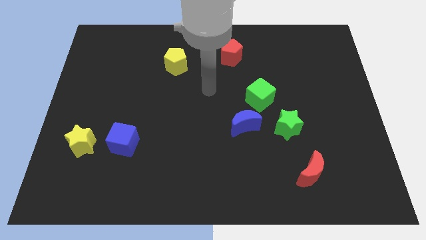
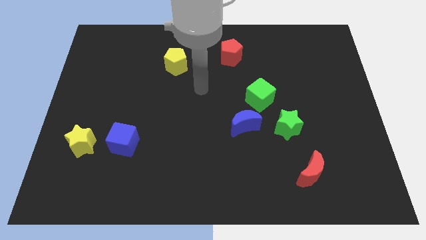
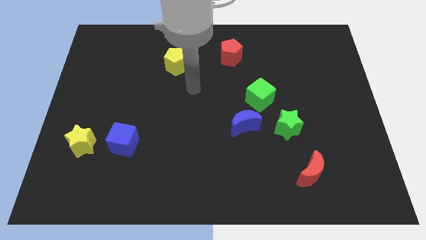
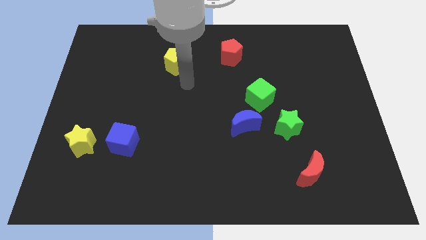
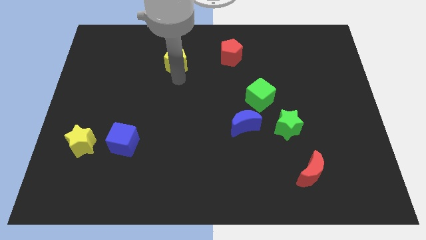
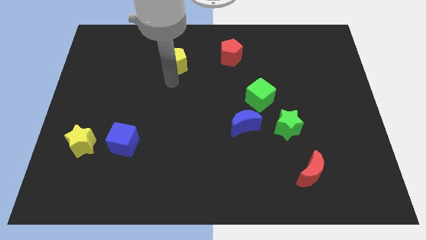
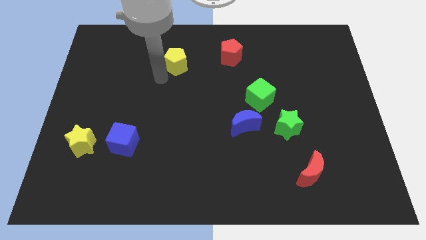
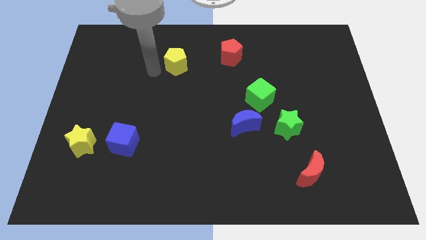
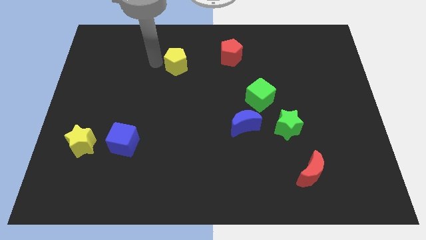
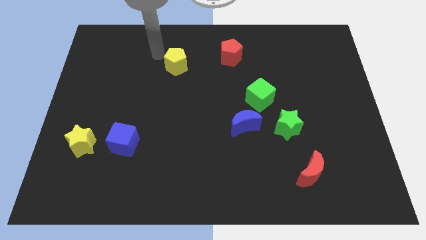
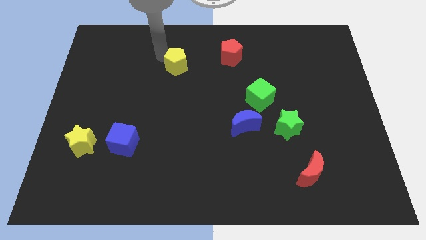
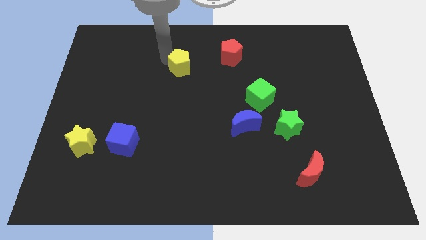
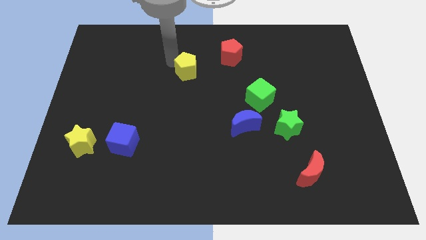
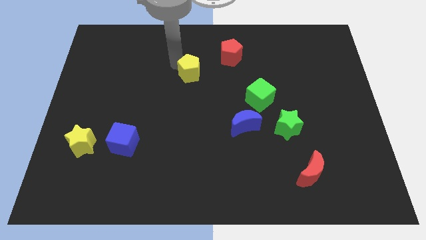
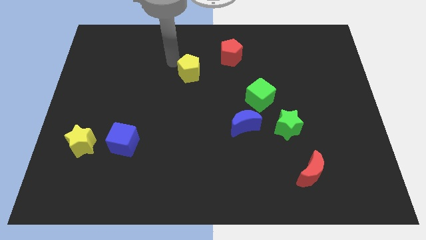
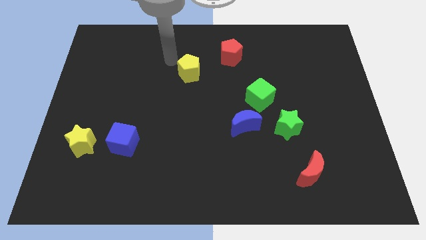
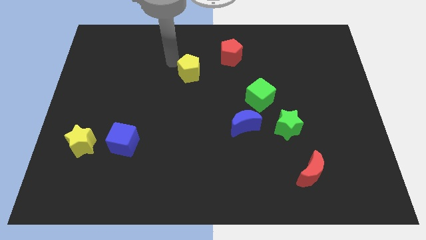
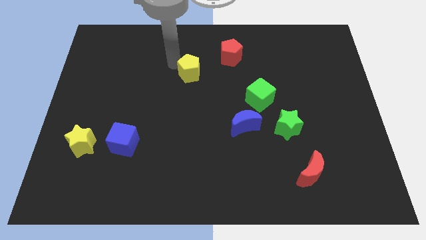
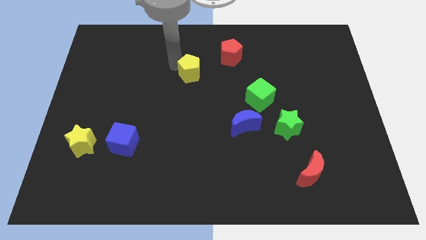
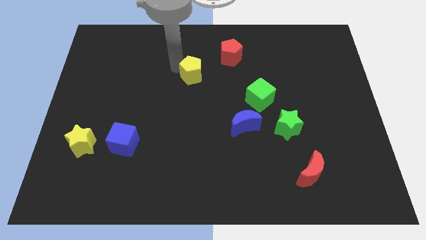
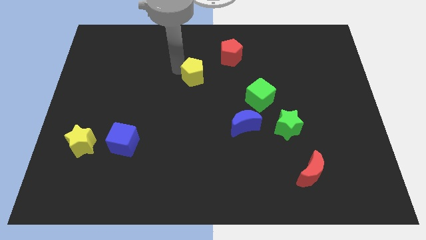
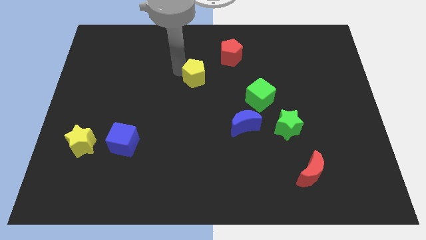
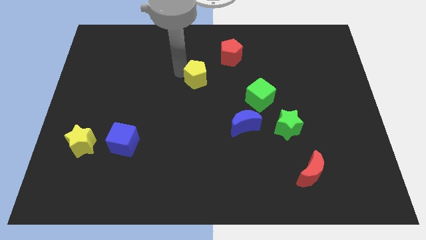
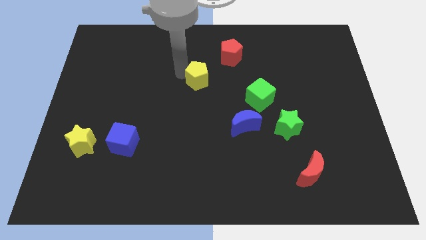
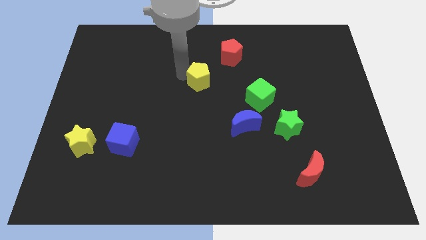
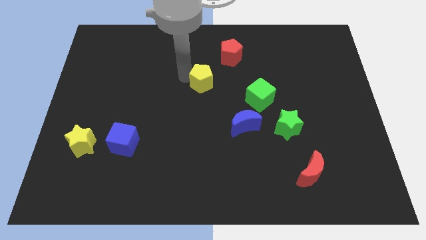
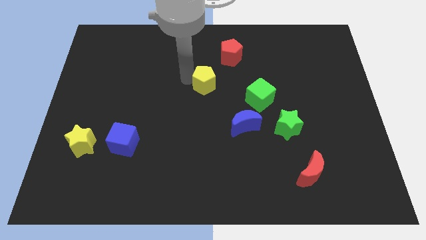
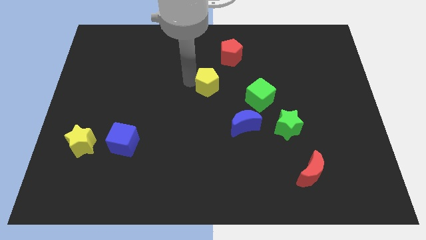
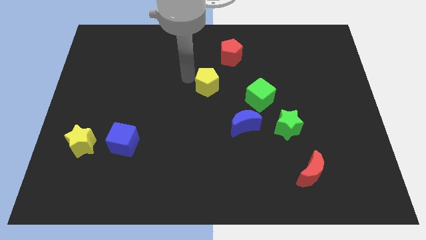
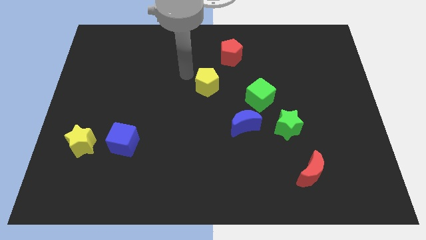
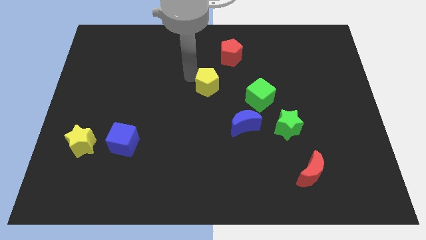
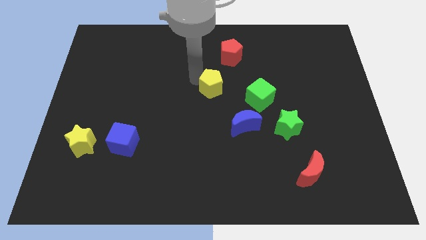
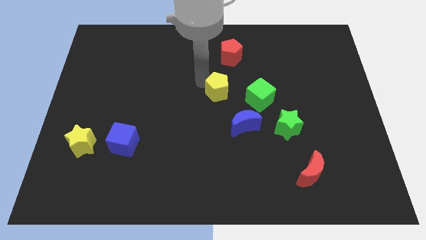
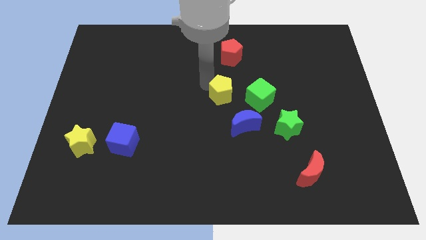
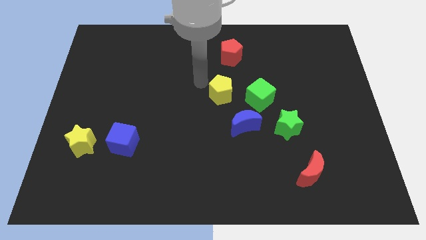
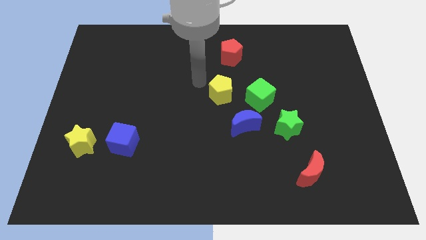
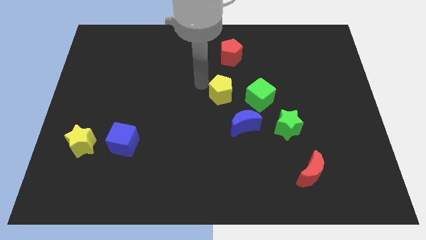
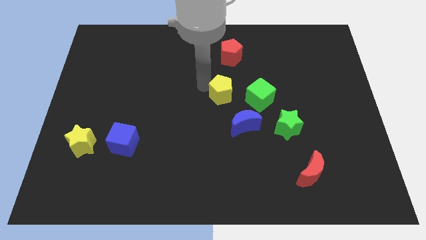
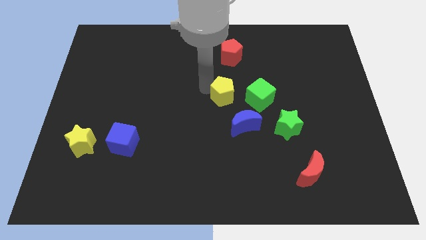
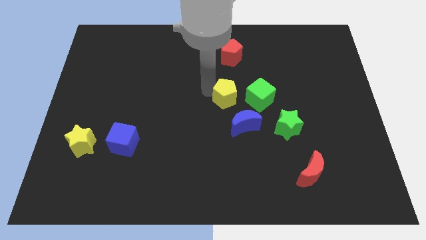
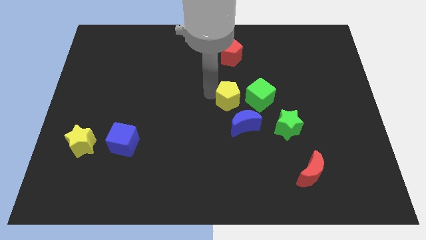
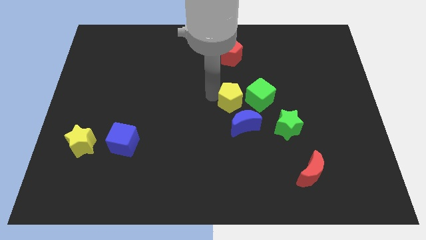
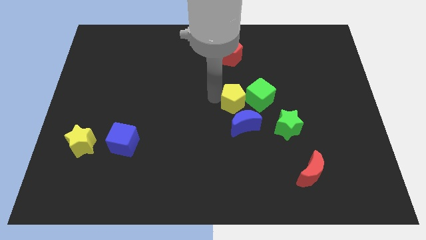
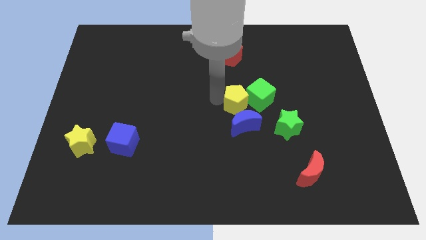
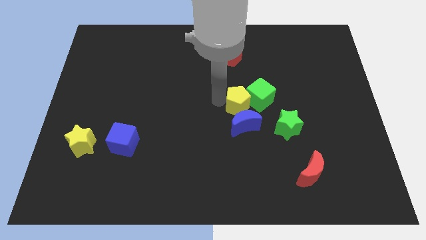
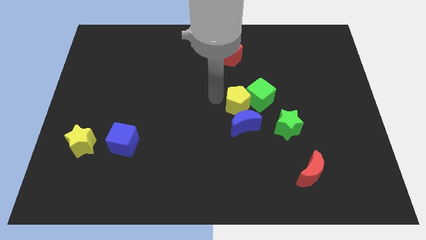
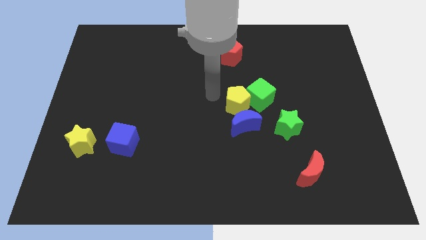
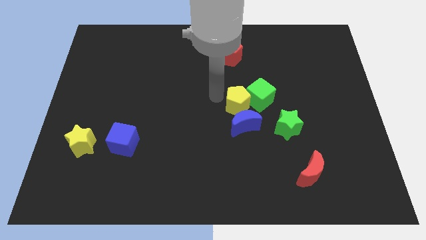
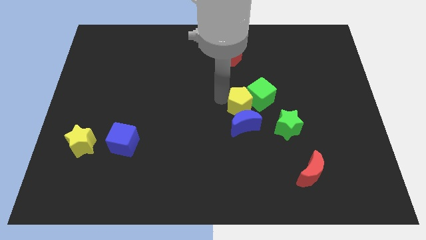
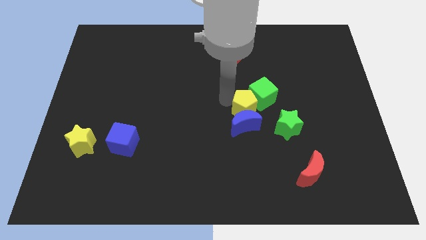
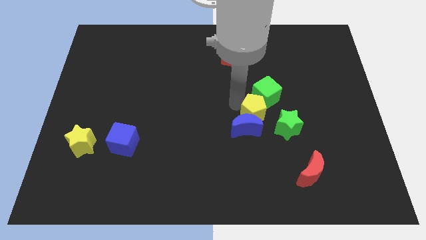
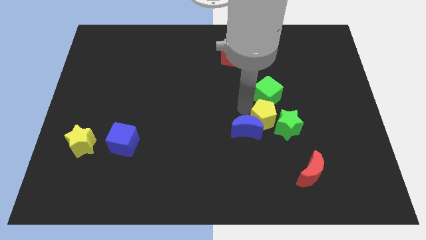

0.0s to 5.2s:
move the yellow pentagon next to the green star

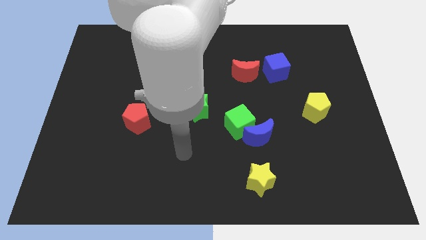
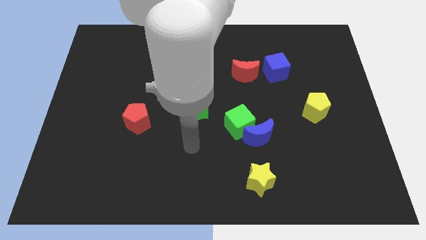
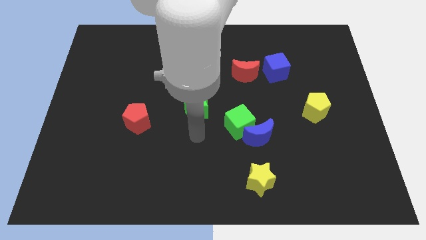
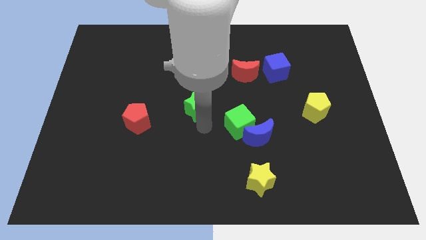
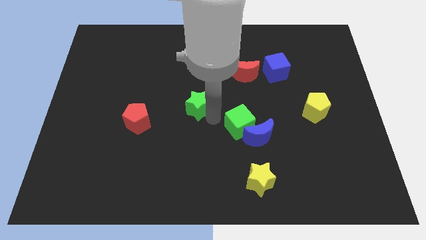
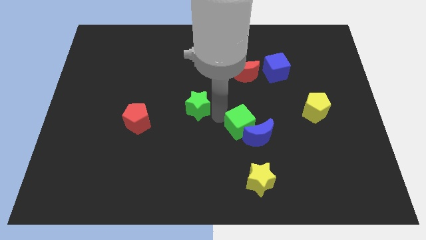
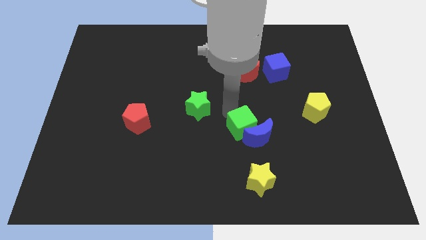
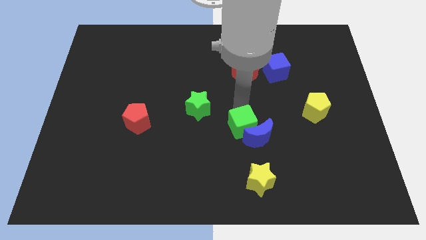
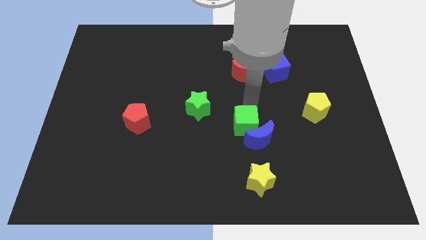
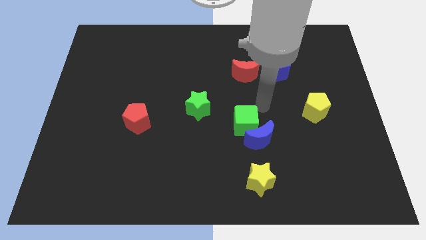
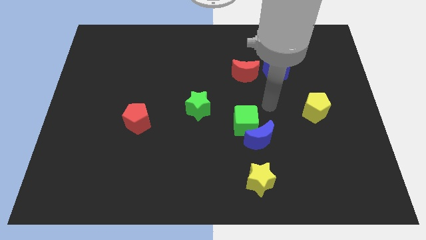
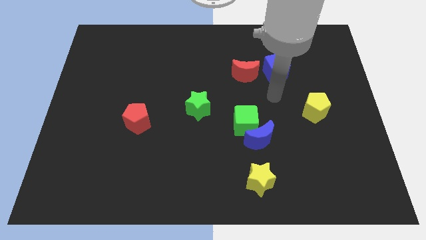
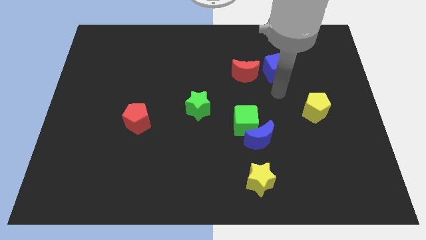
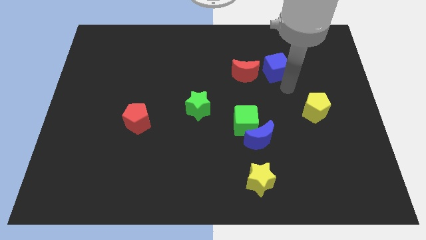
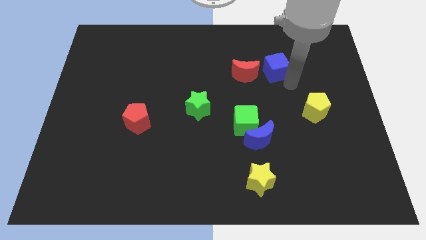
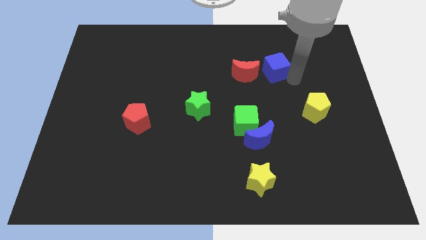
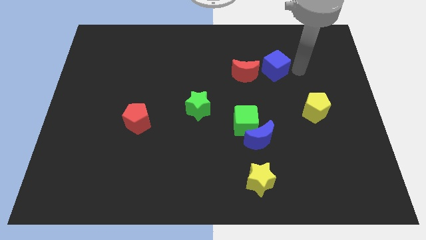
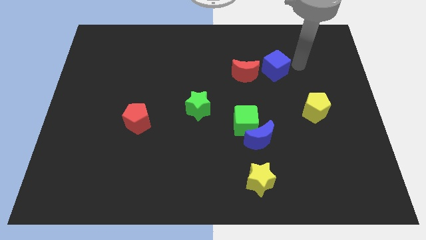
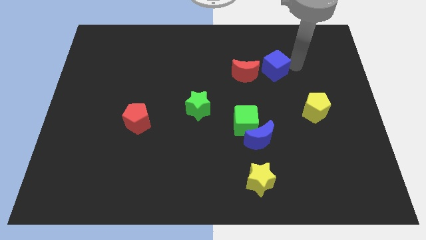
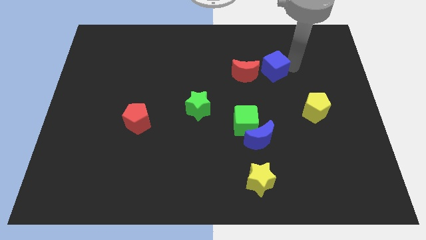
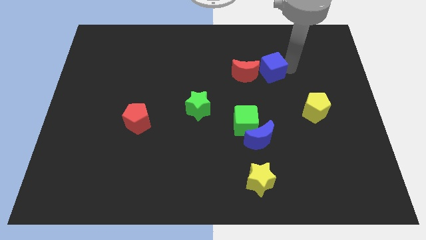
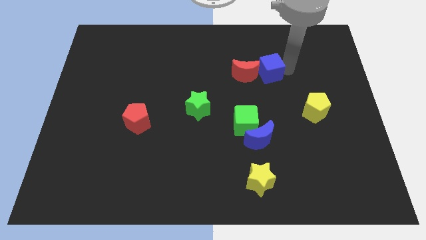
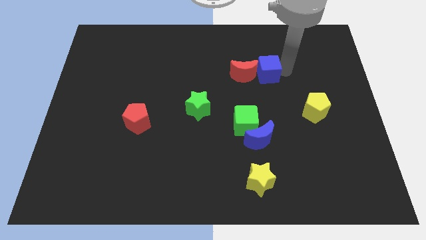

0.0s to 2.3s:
move the blue cube to the red moon
